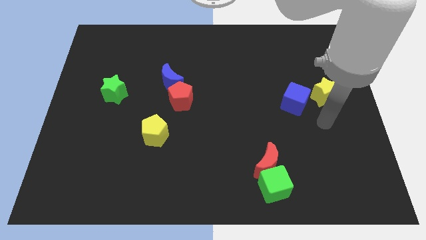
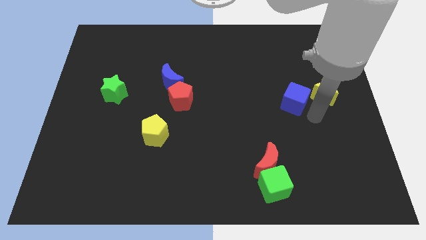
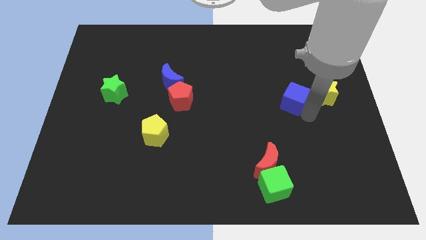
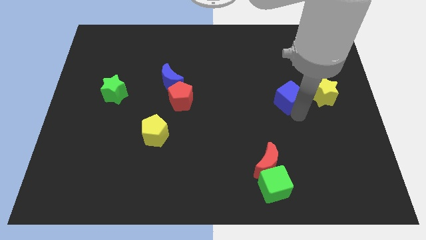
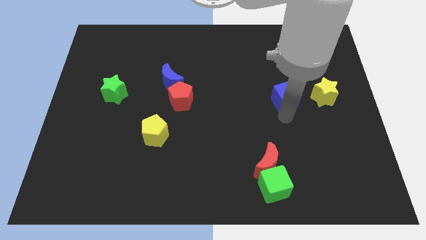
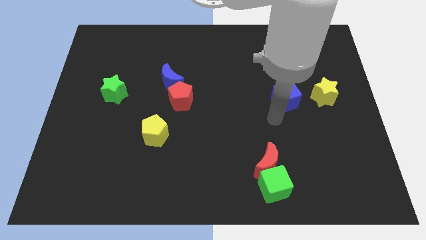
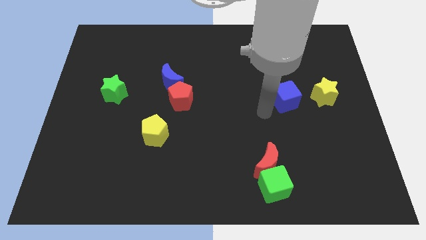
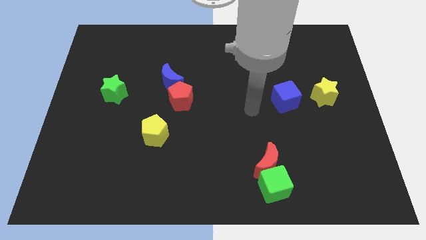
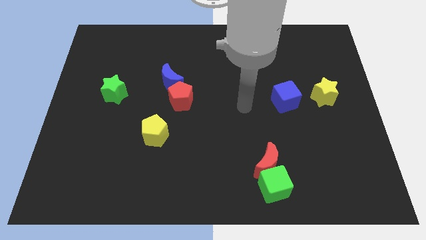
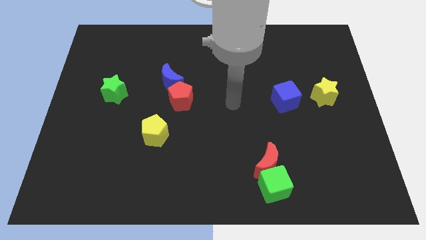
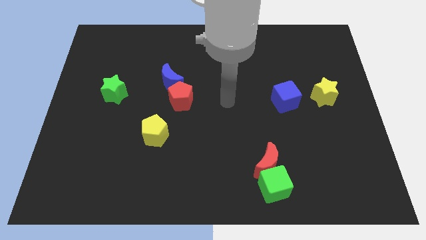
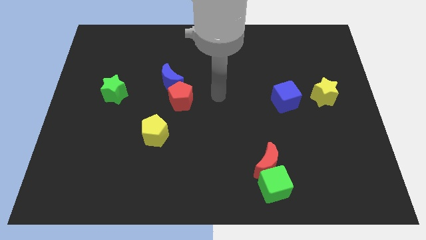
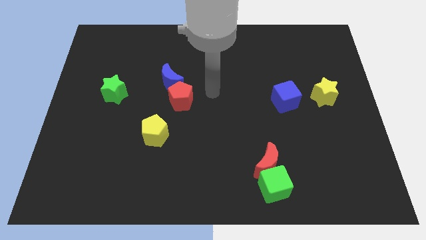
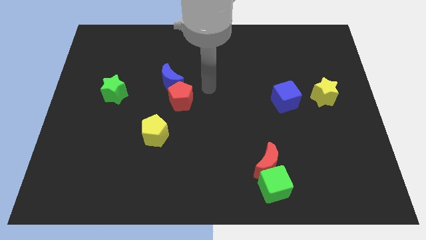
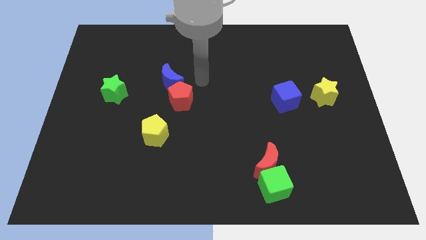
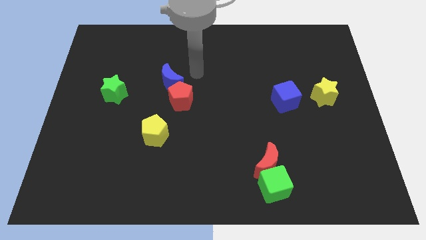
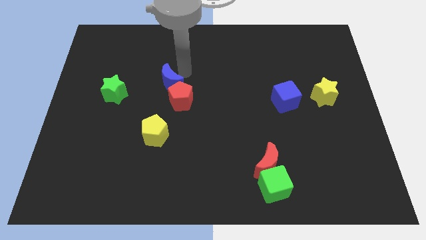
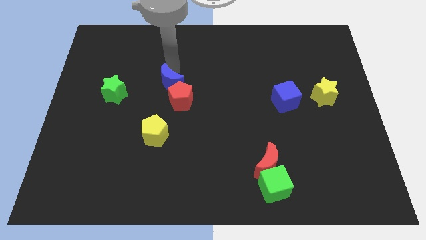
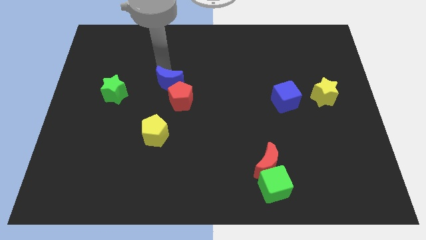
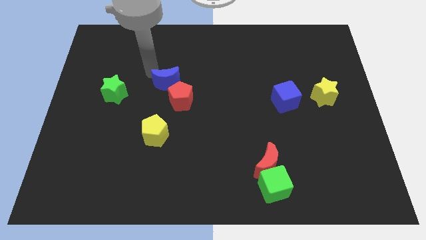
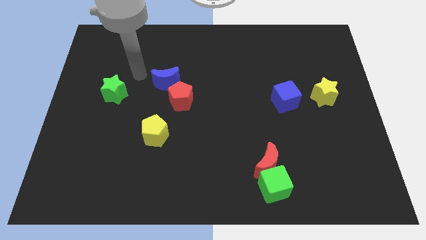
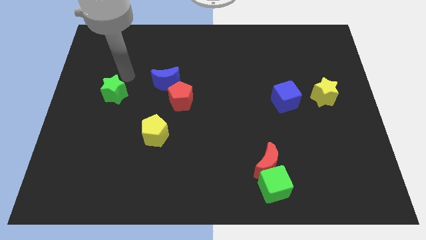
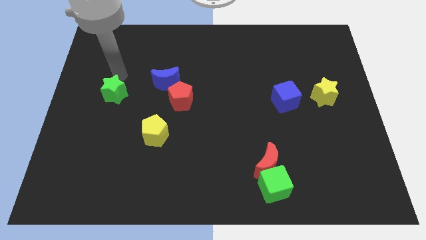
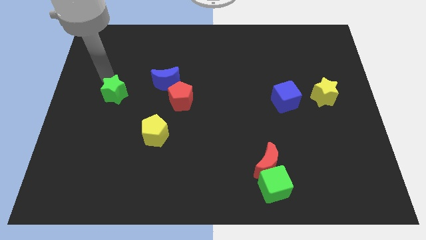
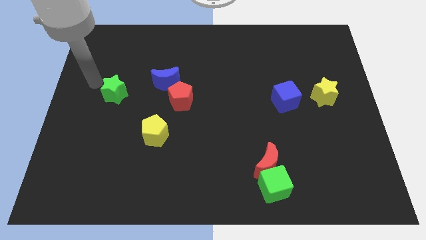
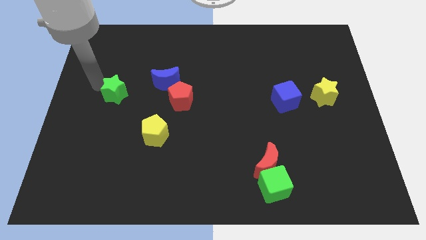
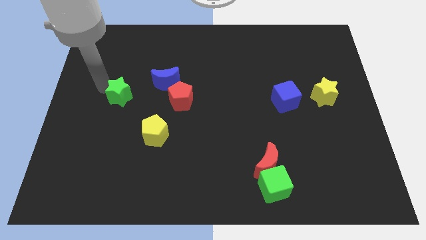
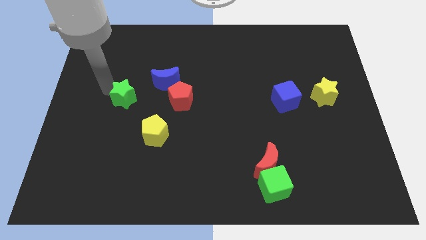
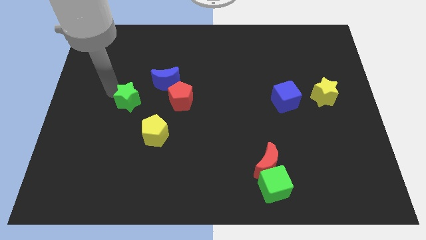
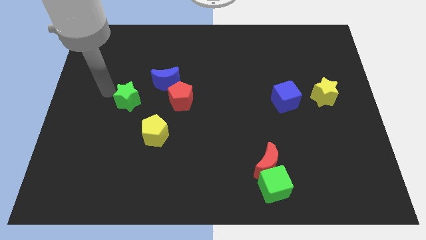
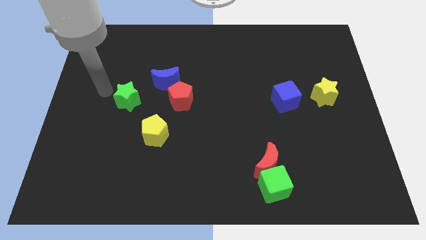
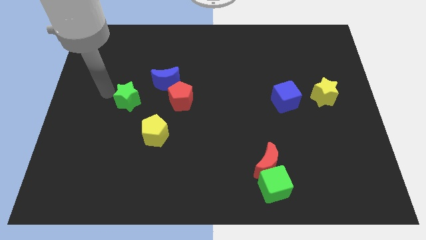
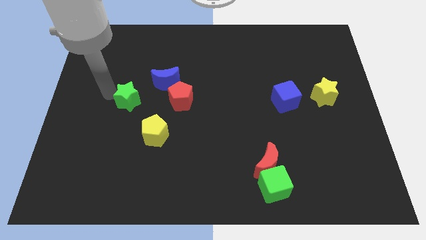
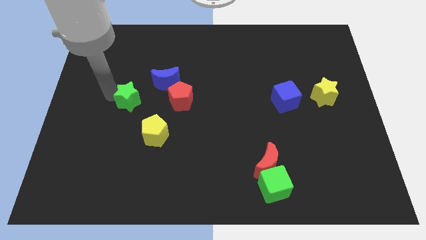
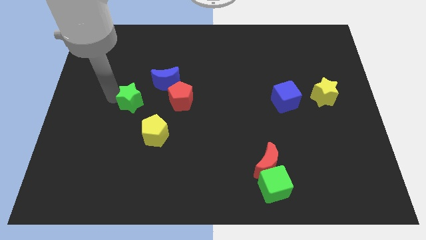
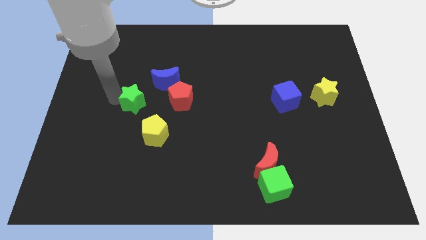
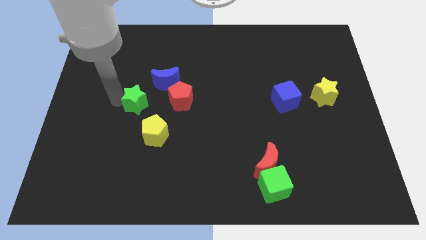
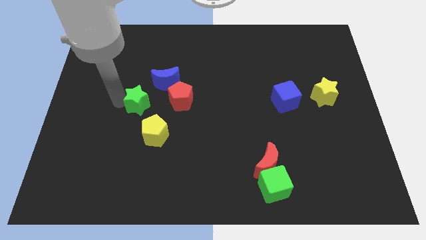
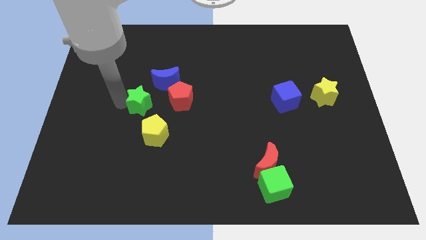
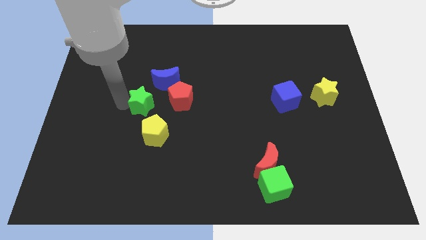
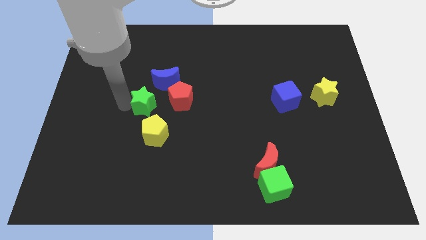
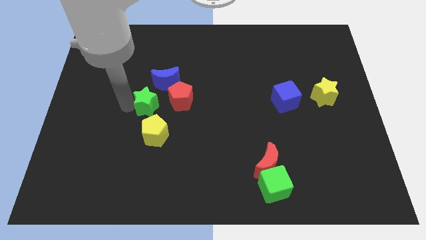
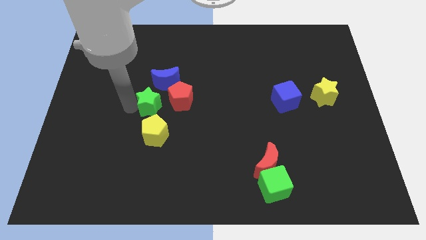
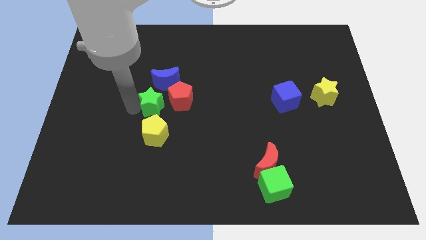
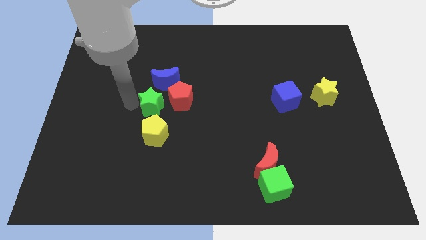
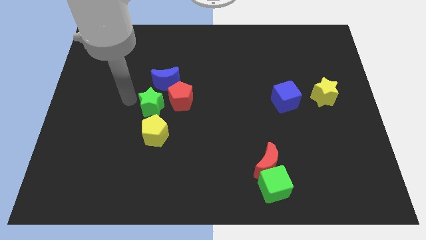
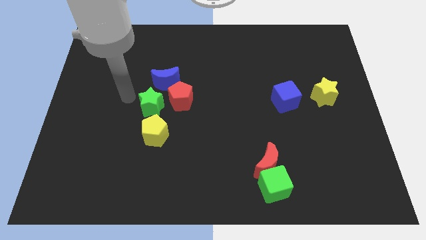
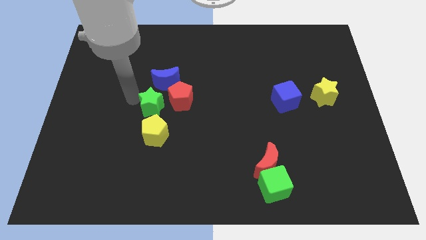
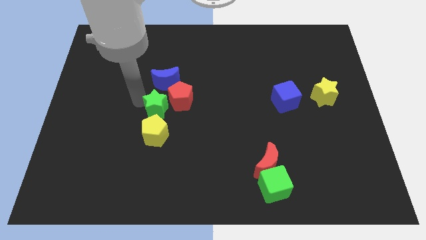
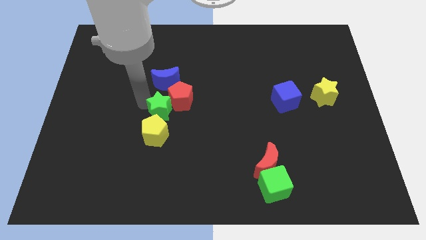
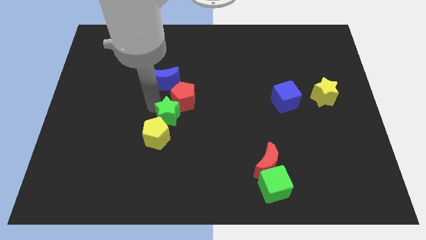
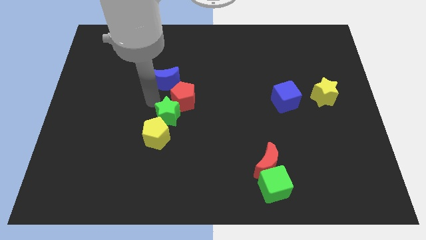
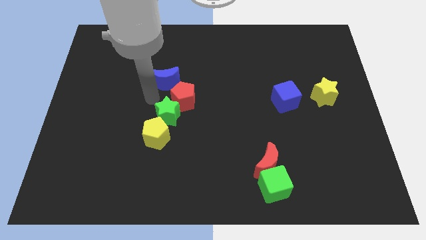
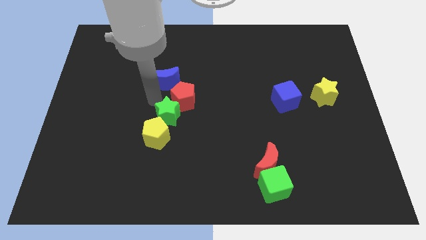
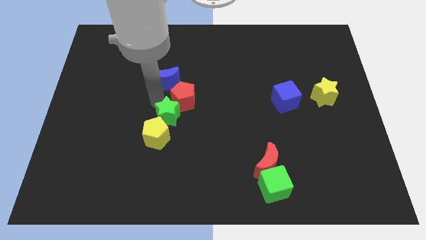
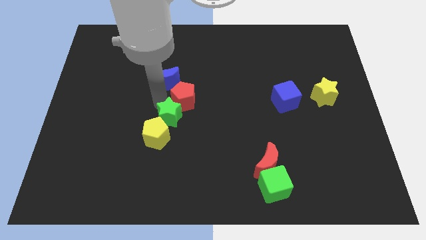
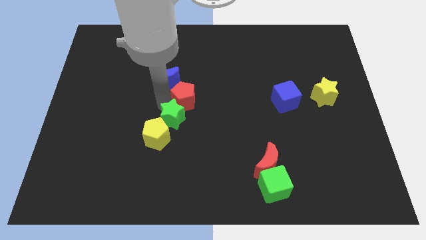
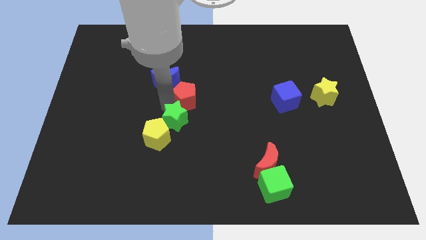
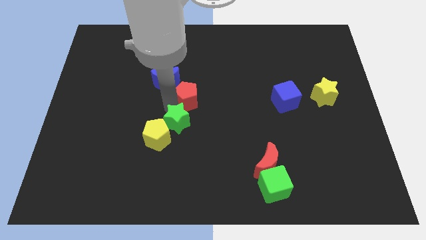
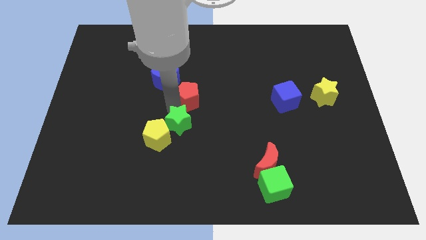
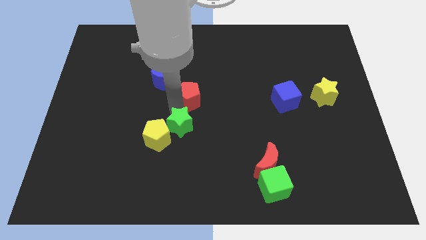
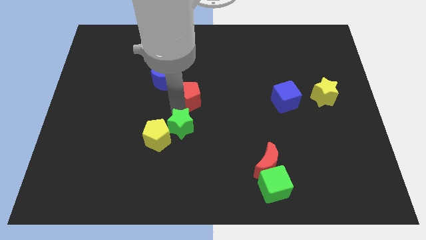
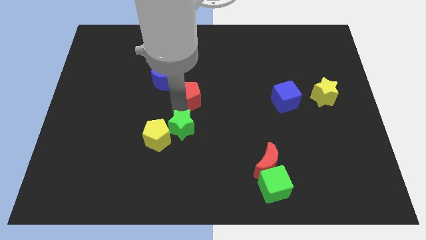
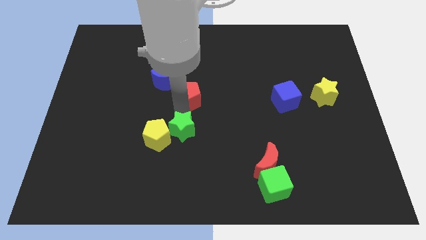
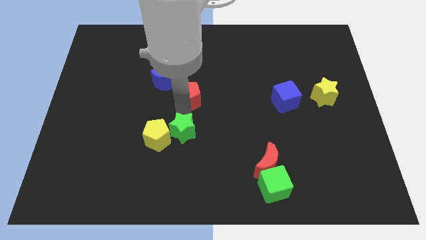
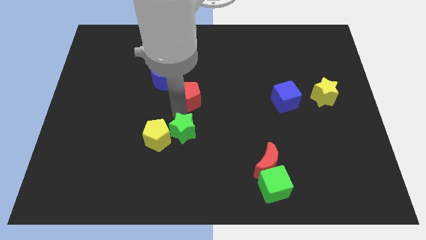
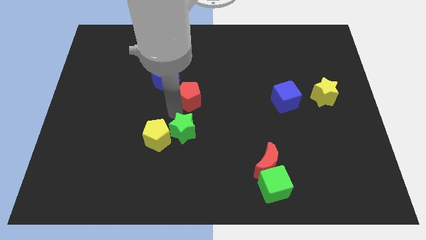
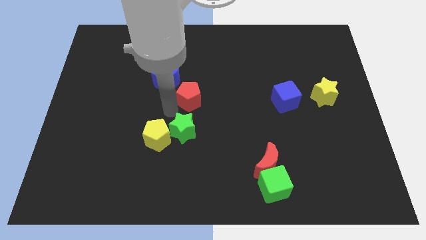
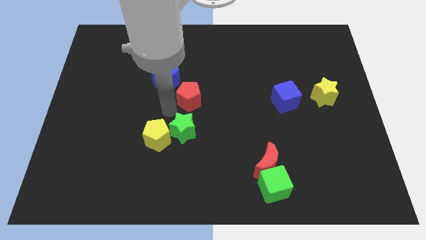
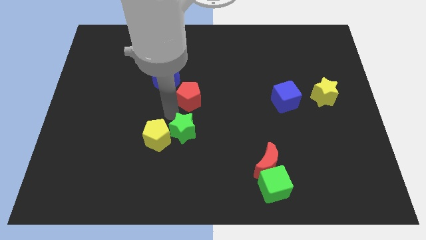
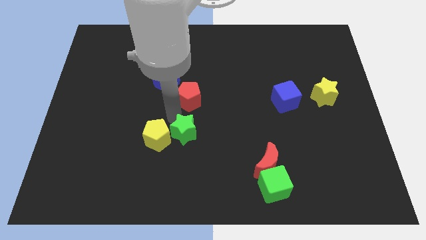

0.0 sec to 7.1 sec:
slide the green star downwards and right diagonally

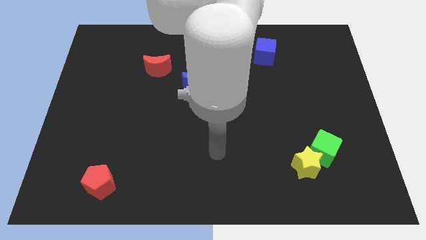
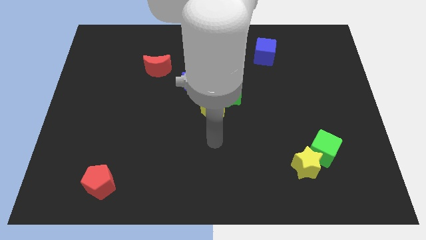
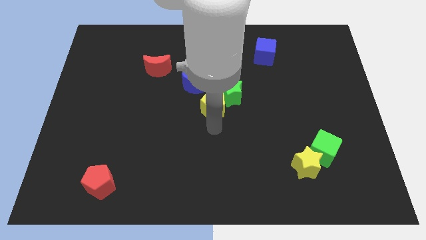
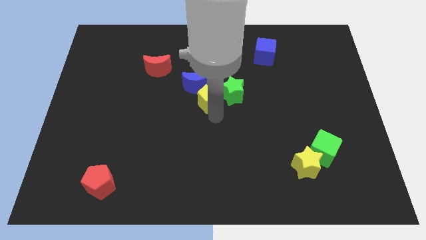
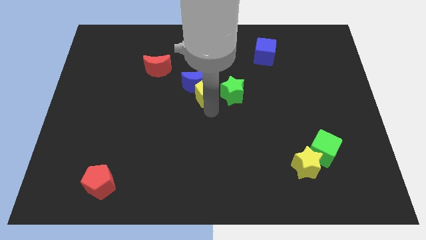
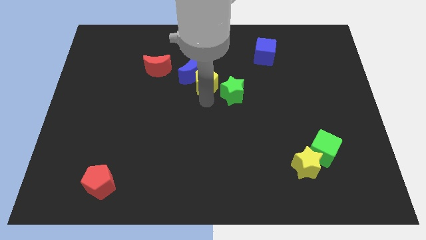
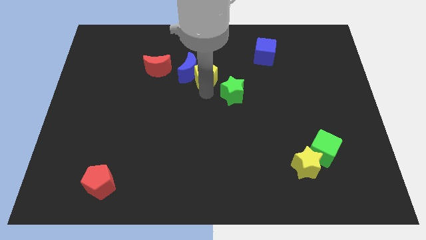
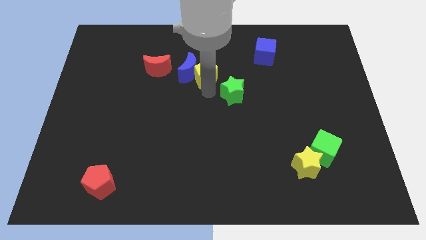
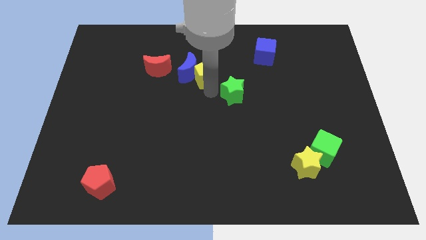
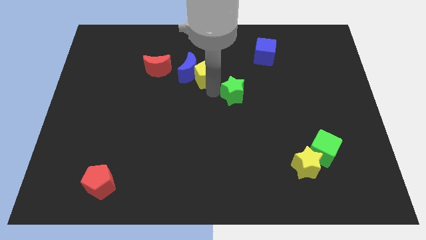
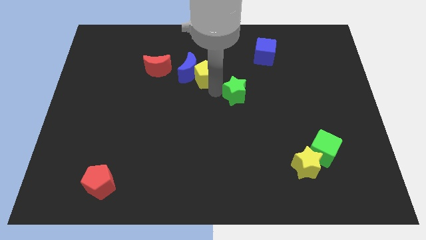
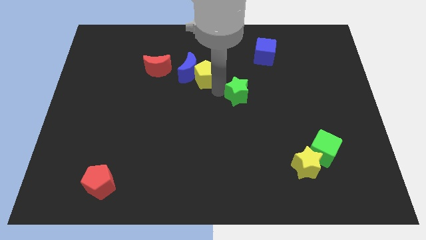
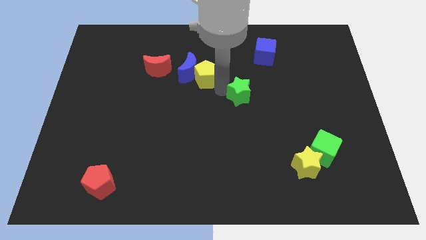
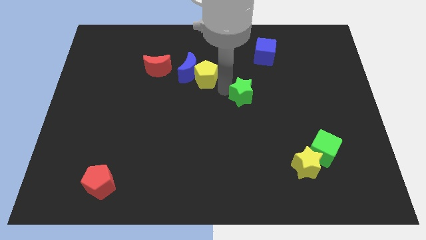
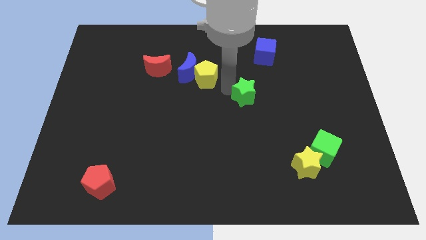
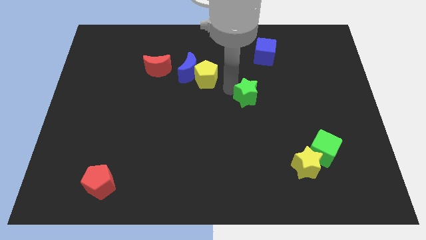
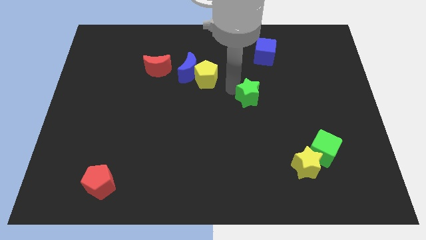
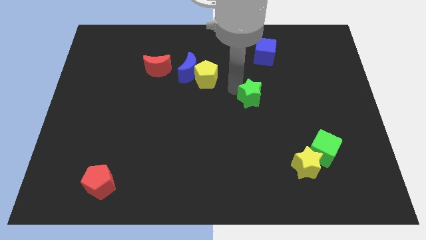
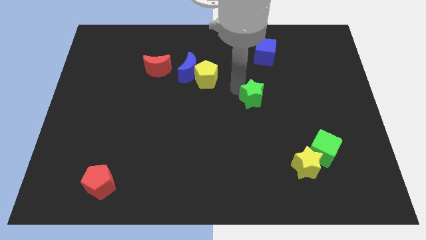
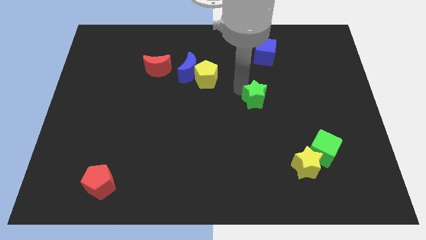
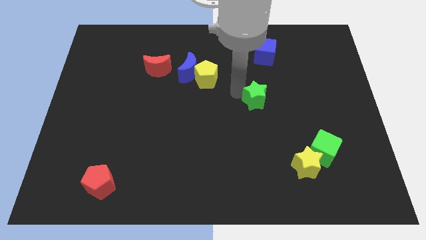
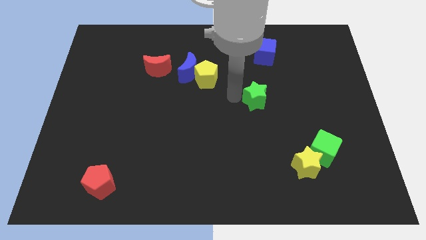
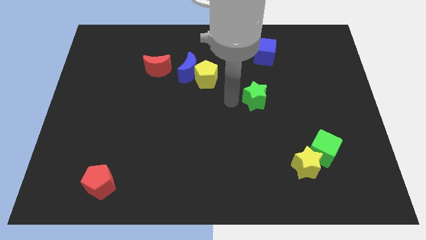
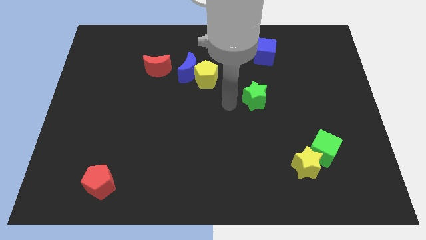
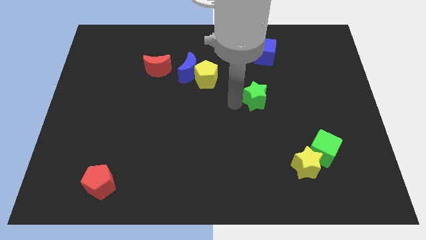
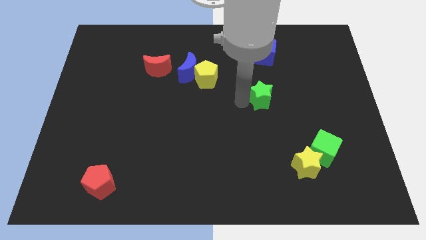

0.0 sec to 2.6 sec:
slide the green star right somewhat
